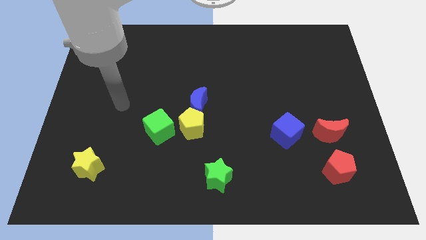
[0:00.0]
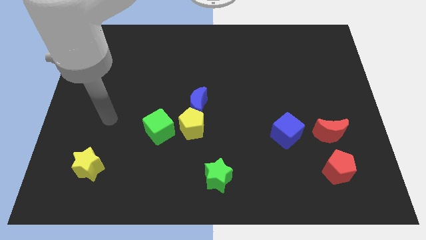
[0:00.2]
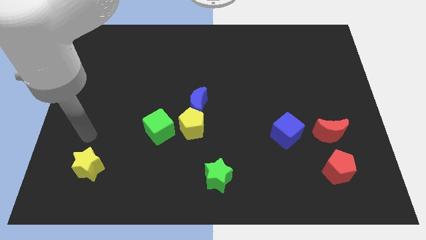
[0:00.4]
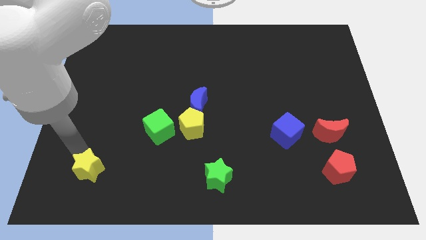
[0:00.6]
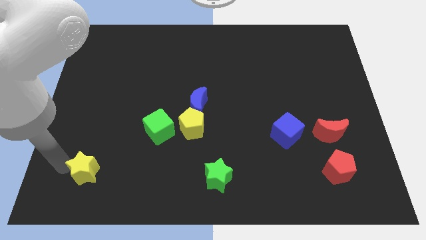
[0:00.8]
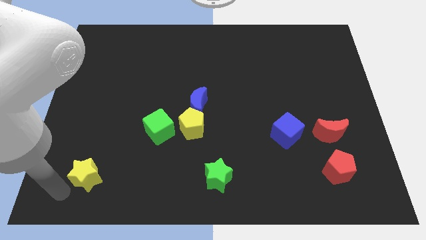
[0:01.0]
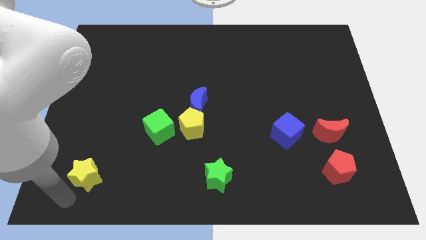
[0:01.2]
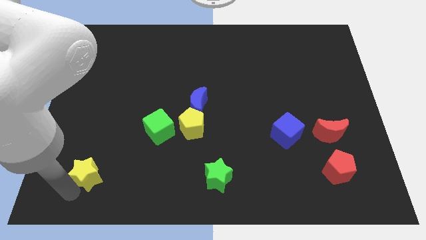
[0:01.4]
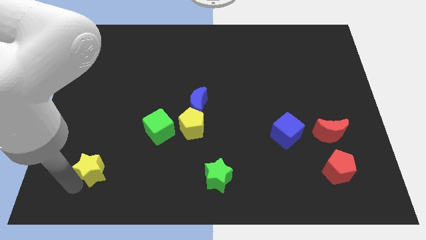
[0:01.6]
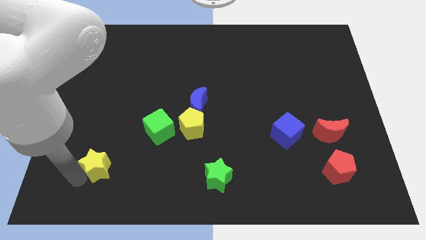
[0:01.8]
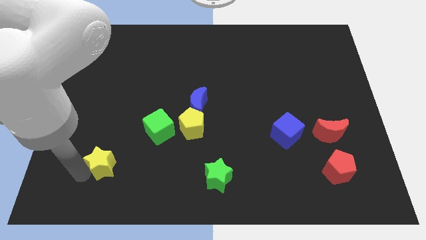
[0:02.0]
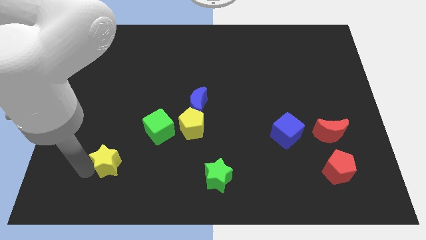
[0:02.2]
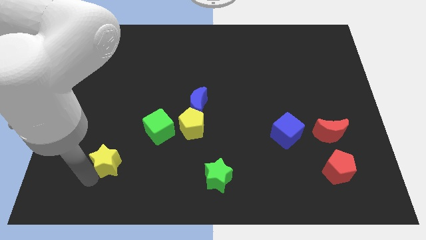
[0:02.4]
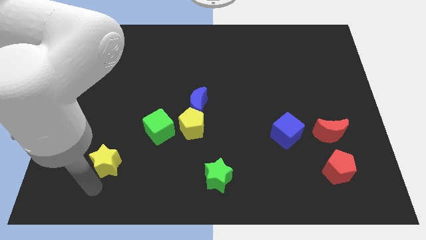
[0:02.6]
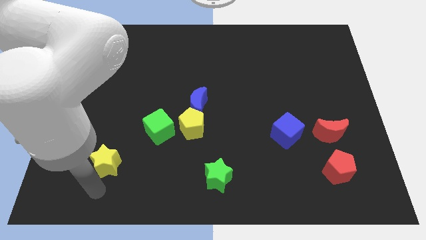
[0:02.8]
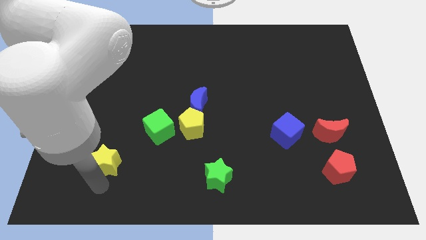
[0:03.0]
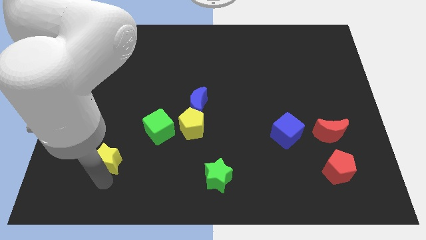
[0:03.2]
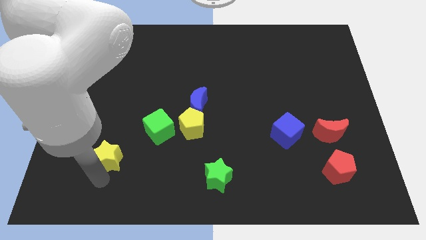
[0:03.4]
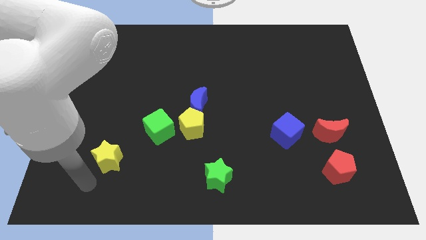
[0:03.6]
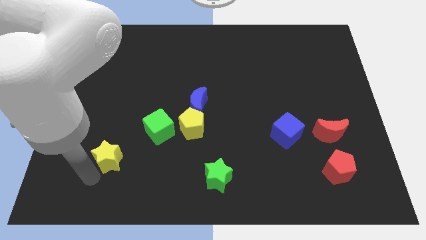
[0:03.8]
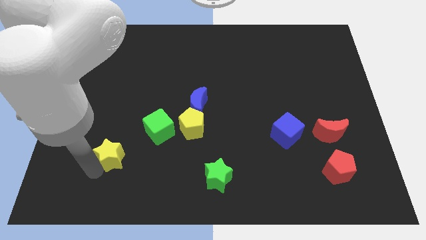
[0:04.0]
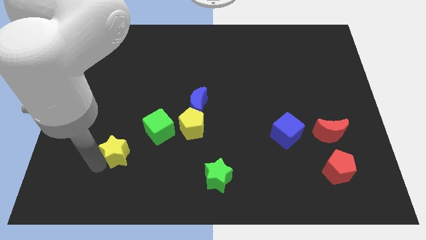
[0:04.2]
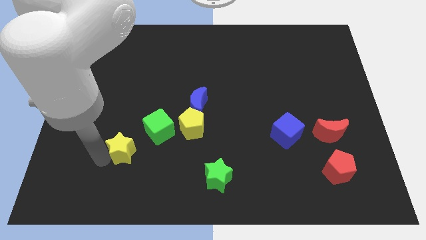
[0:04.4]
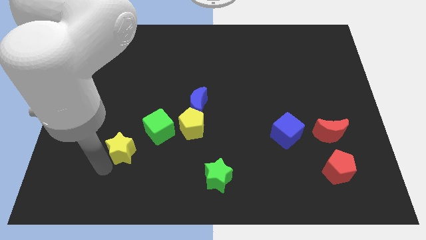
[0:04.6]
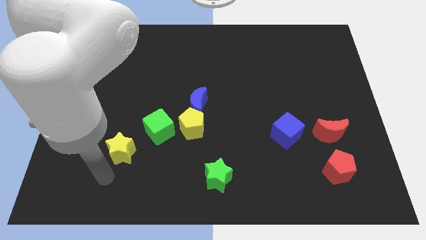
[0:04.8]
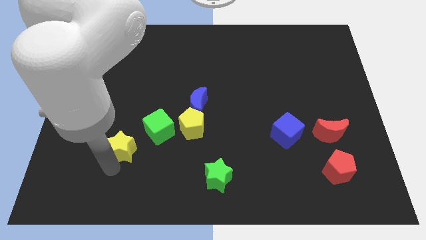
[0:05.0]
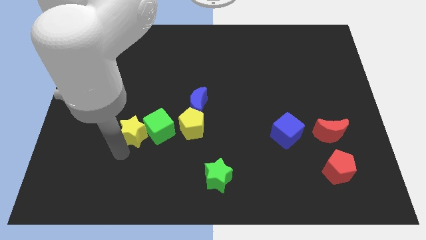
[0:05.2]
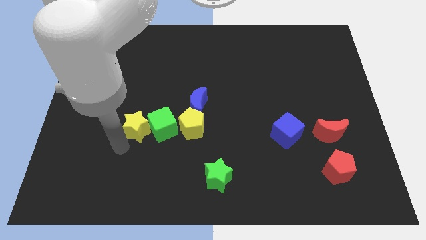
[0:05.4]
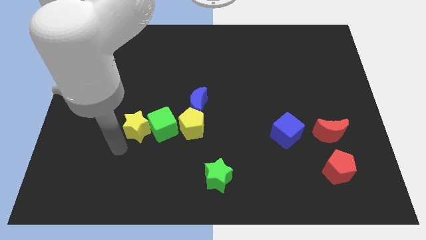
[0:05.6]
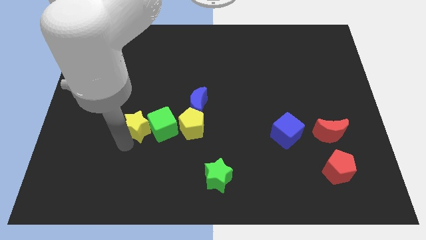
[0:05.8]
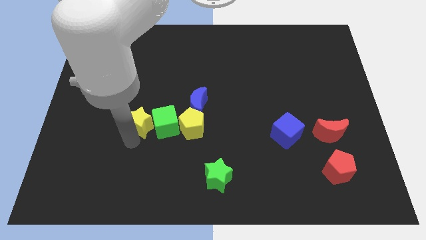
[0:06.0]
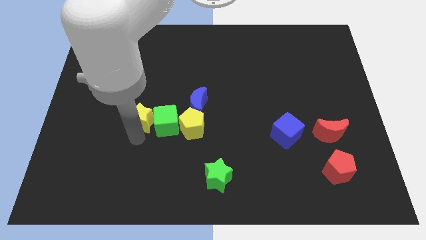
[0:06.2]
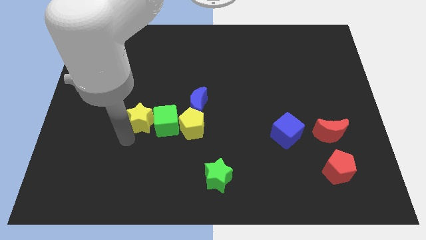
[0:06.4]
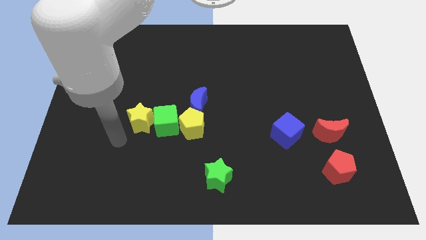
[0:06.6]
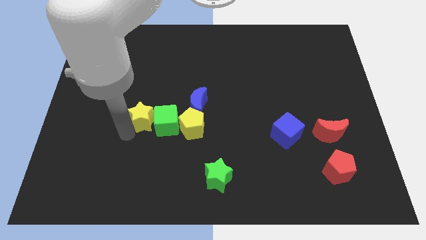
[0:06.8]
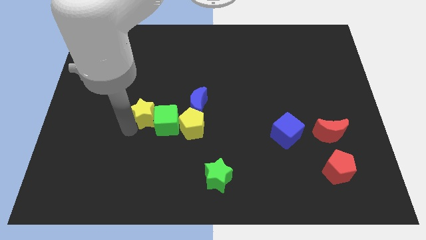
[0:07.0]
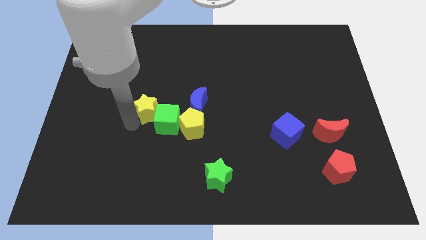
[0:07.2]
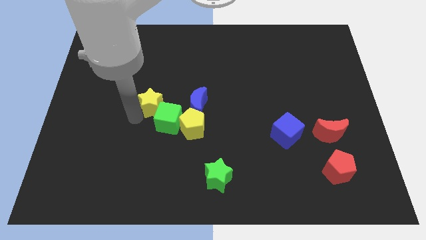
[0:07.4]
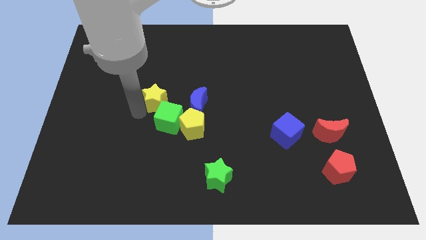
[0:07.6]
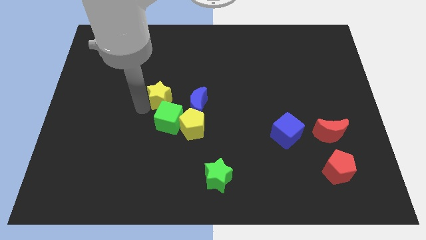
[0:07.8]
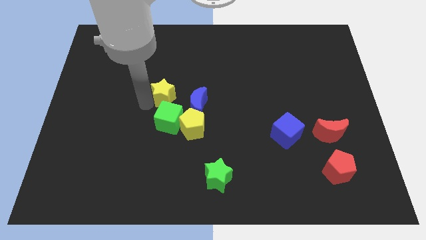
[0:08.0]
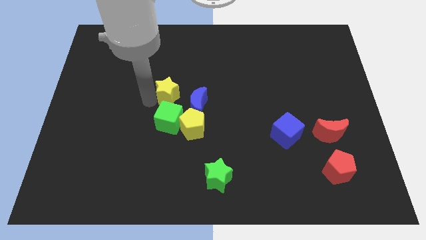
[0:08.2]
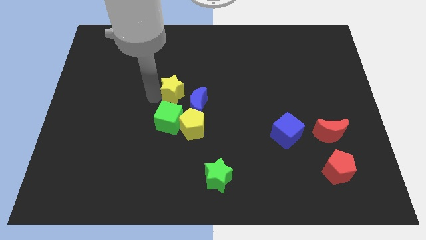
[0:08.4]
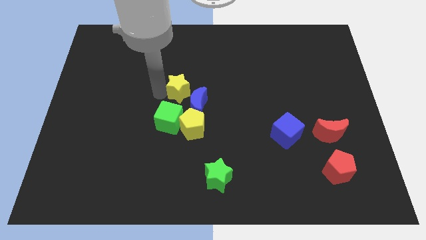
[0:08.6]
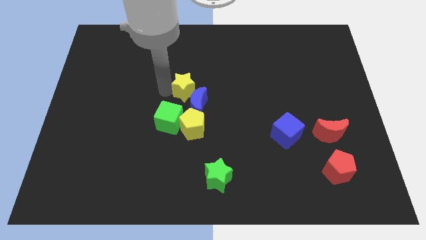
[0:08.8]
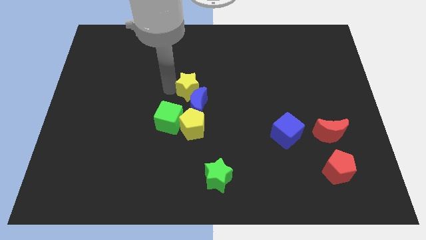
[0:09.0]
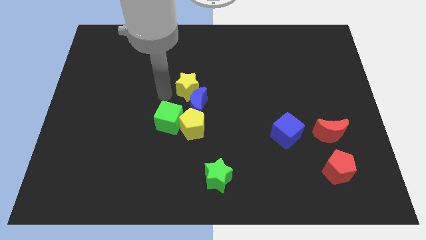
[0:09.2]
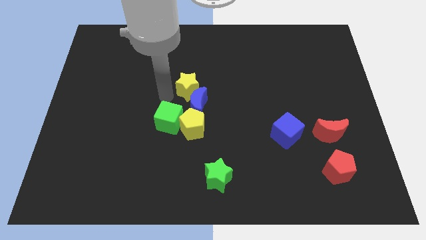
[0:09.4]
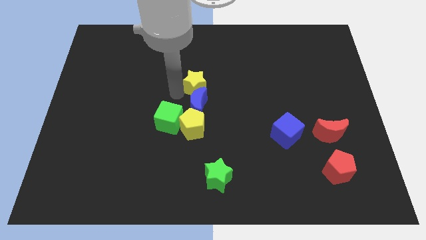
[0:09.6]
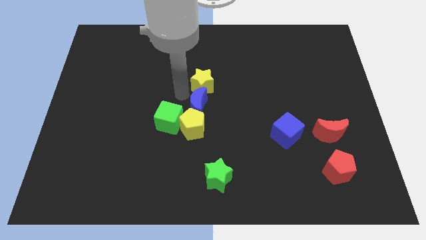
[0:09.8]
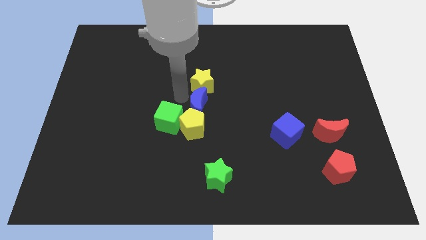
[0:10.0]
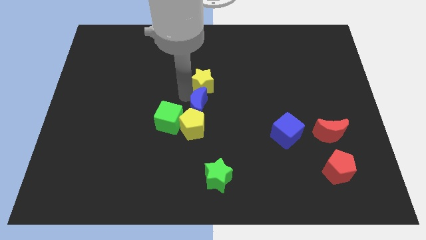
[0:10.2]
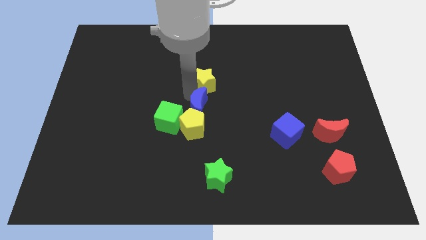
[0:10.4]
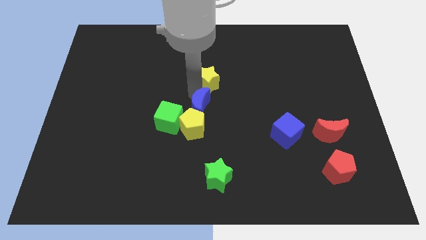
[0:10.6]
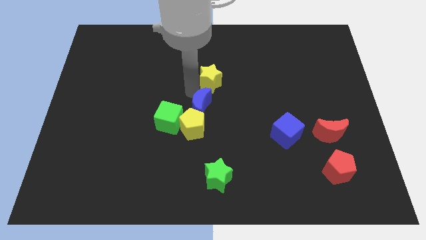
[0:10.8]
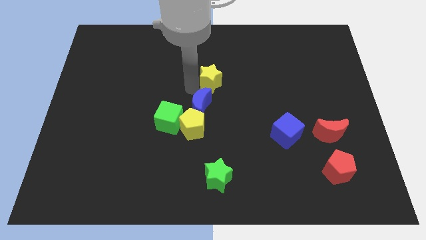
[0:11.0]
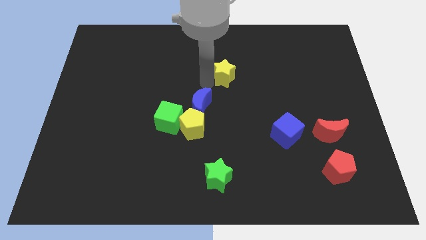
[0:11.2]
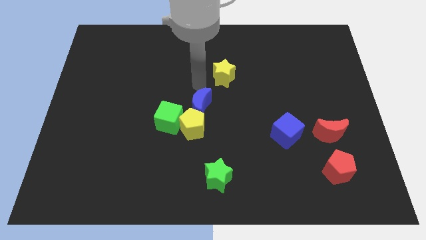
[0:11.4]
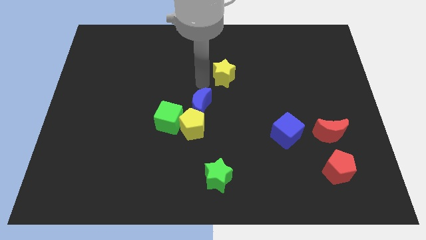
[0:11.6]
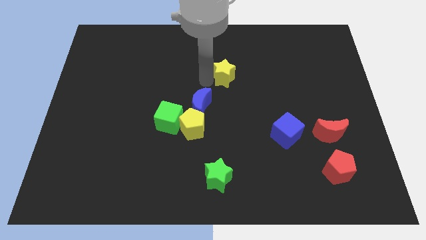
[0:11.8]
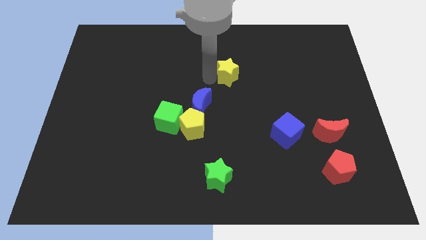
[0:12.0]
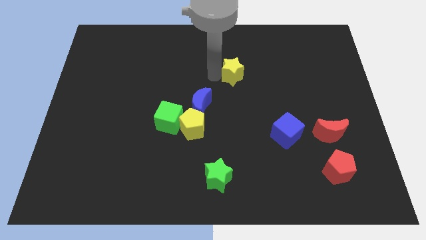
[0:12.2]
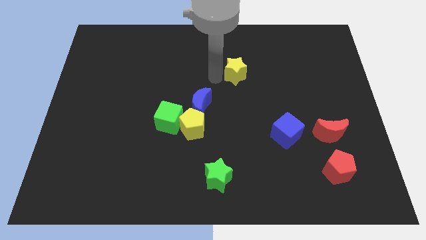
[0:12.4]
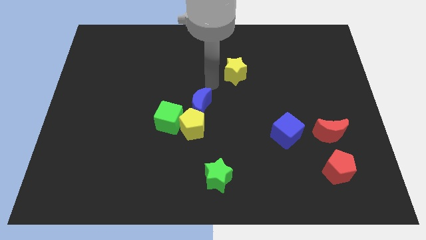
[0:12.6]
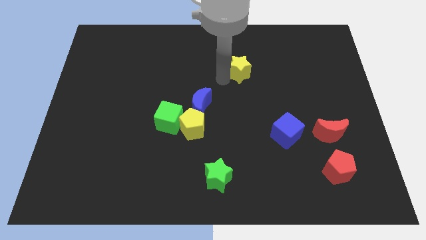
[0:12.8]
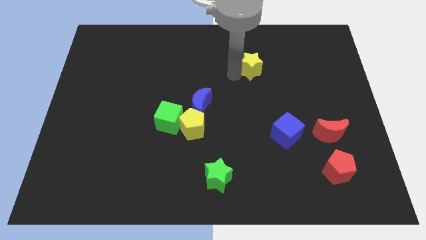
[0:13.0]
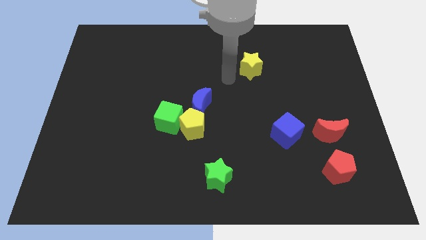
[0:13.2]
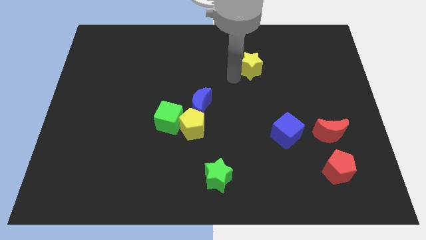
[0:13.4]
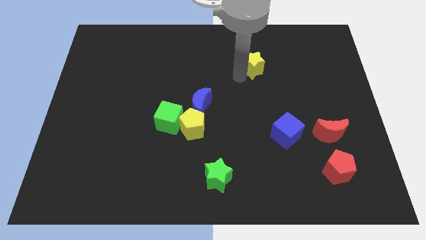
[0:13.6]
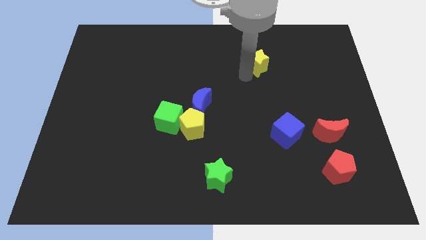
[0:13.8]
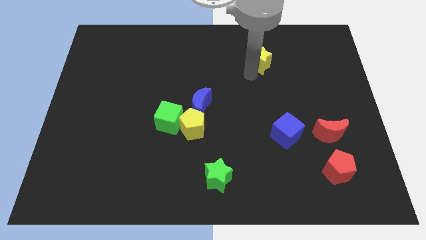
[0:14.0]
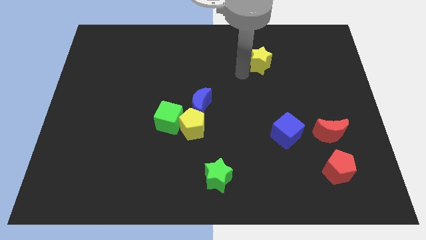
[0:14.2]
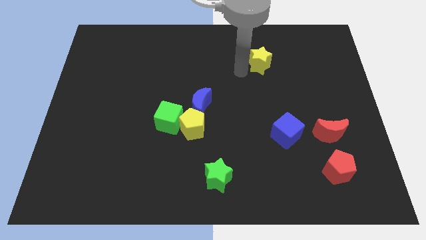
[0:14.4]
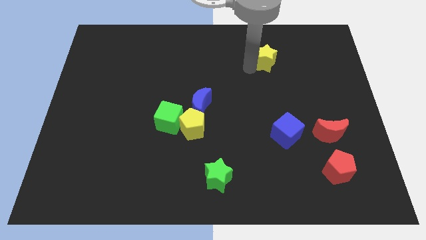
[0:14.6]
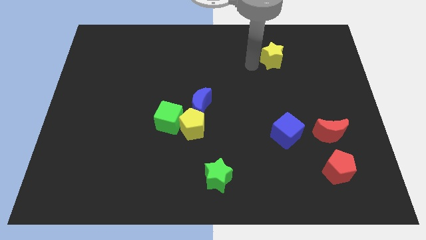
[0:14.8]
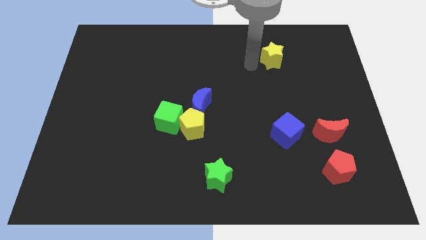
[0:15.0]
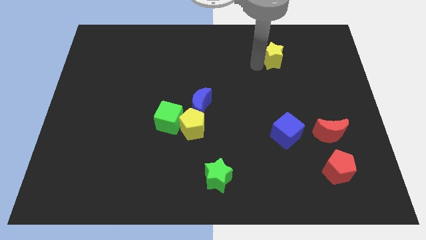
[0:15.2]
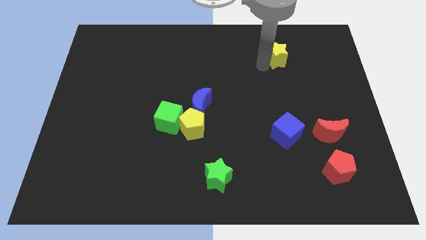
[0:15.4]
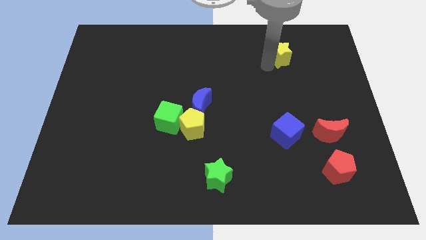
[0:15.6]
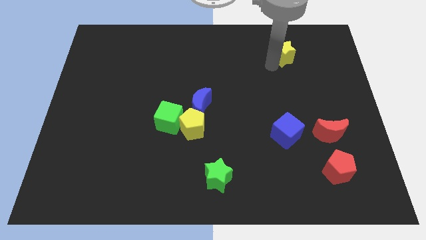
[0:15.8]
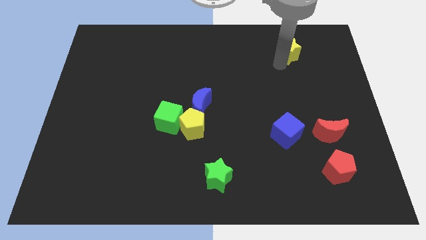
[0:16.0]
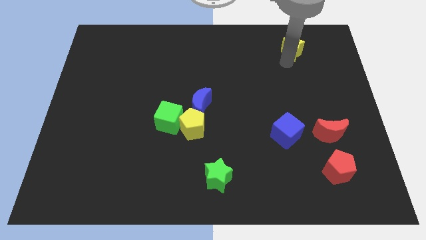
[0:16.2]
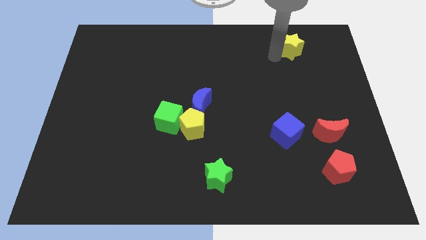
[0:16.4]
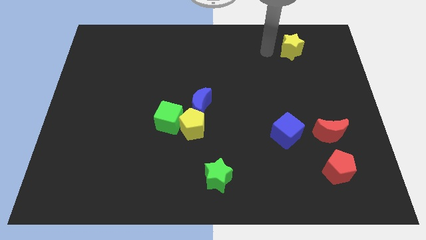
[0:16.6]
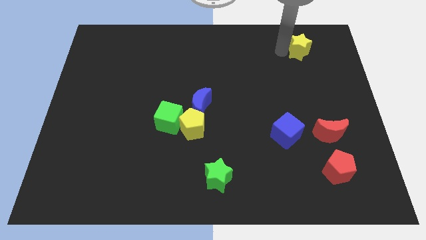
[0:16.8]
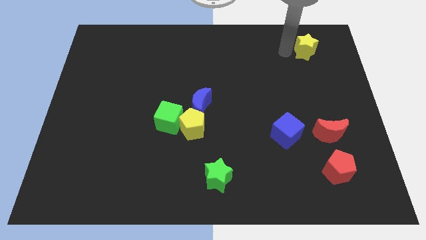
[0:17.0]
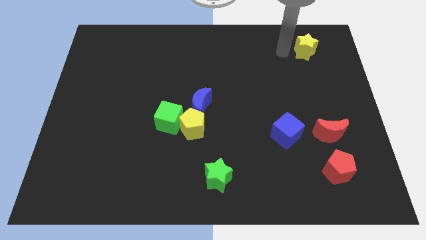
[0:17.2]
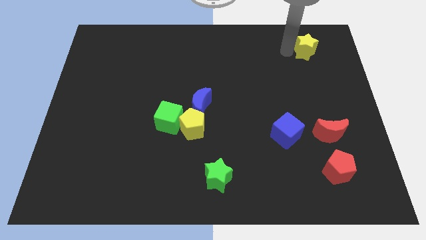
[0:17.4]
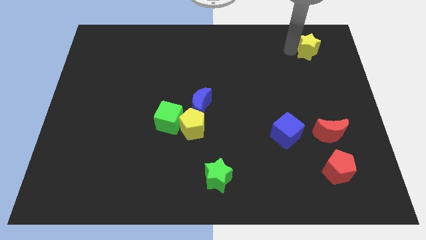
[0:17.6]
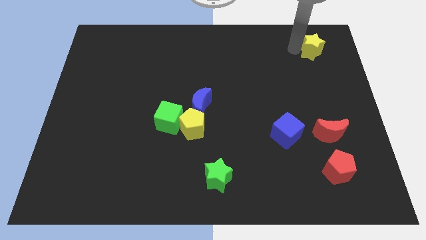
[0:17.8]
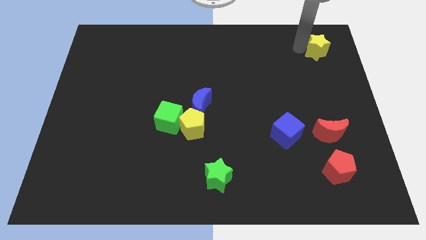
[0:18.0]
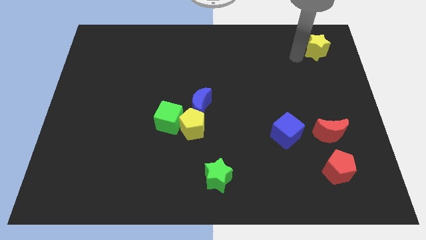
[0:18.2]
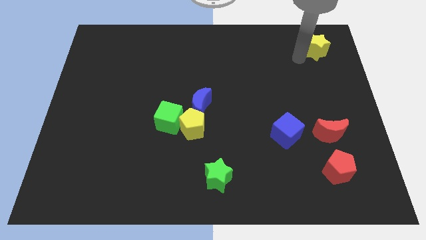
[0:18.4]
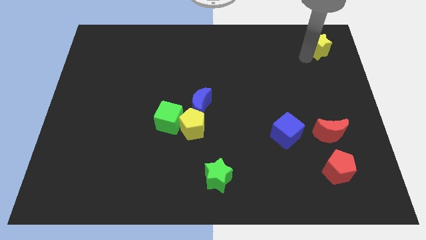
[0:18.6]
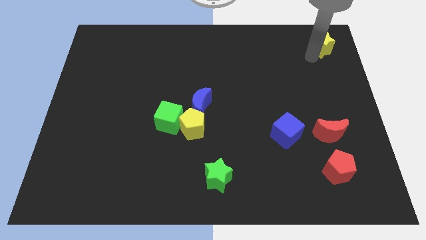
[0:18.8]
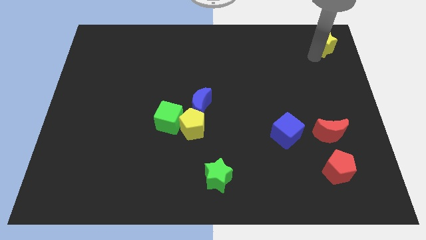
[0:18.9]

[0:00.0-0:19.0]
push the yellow star to the top right corner
